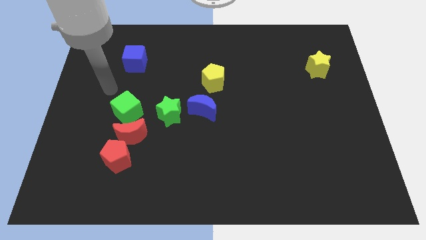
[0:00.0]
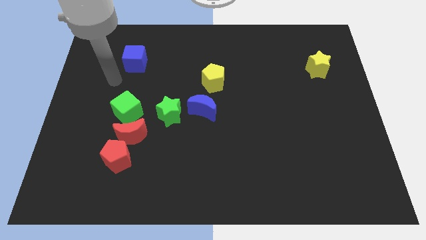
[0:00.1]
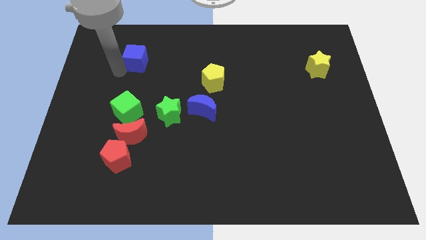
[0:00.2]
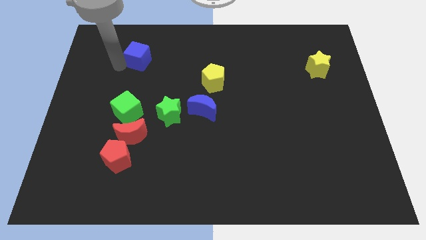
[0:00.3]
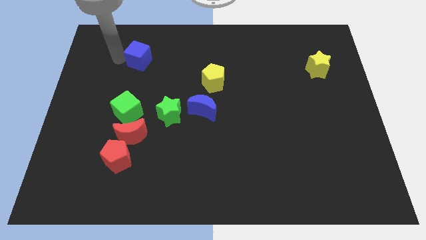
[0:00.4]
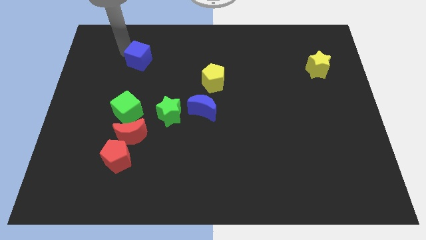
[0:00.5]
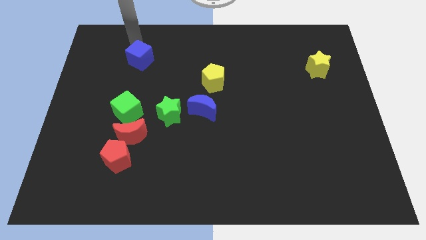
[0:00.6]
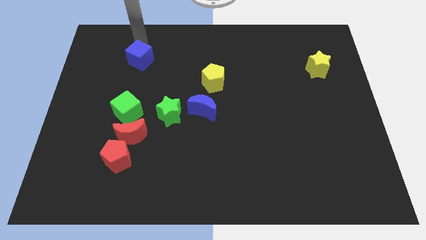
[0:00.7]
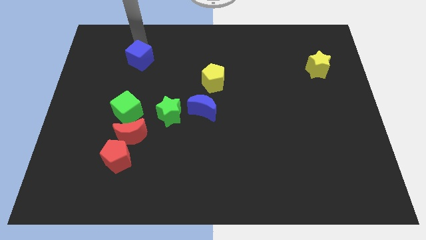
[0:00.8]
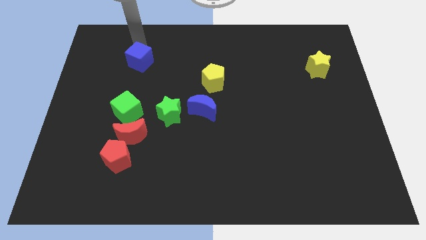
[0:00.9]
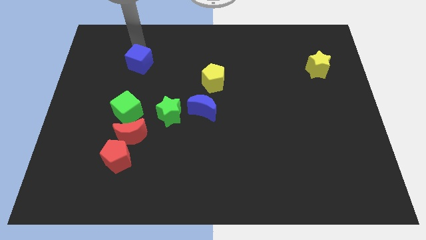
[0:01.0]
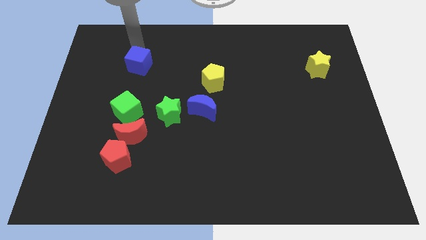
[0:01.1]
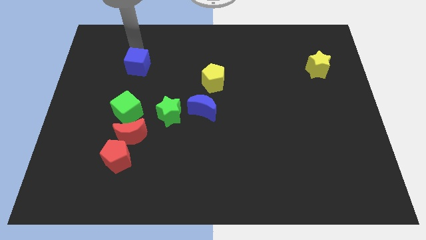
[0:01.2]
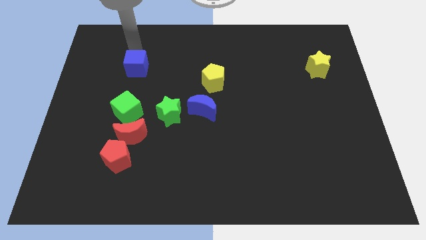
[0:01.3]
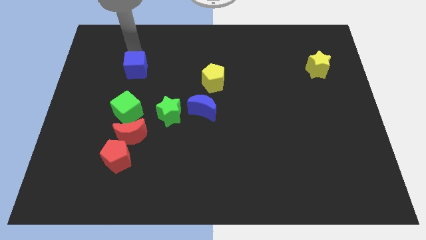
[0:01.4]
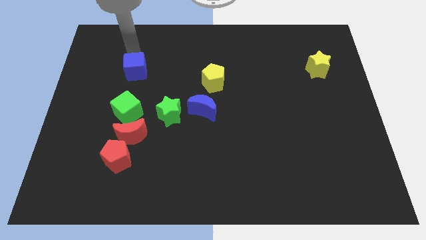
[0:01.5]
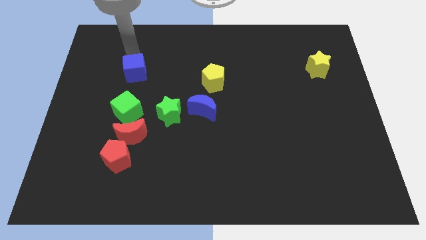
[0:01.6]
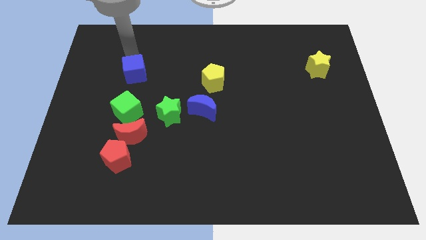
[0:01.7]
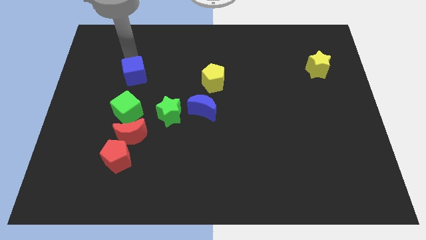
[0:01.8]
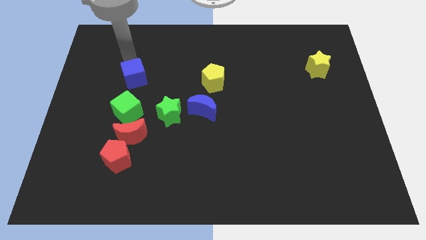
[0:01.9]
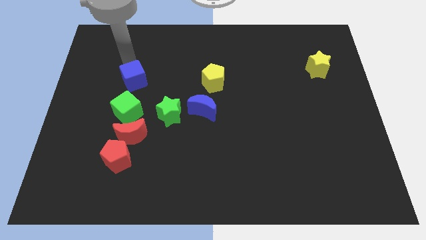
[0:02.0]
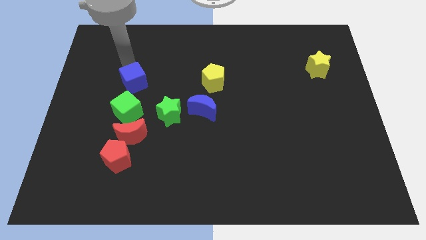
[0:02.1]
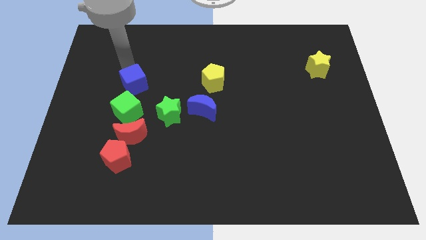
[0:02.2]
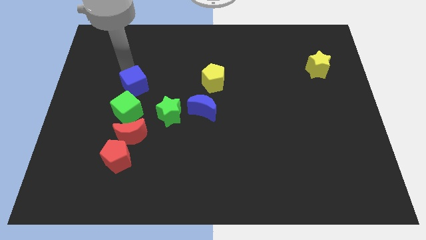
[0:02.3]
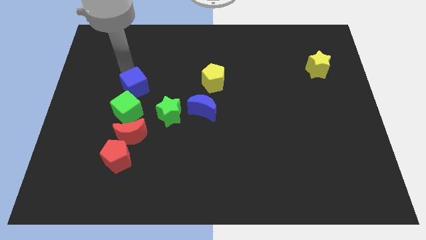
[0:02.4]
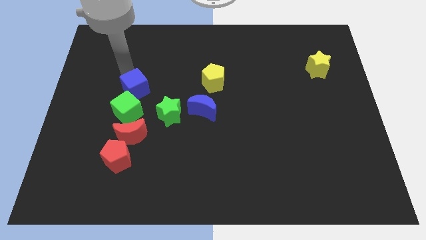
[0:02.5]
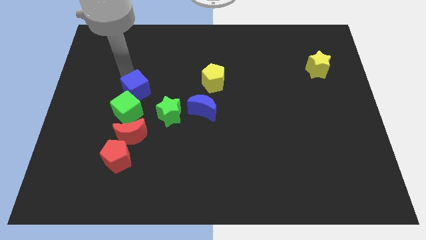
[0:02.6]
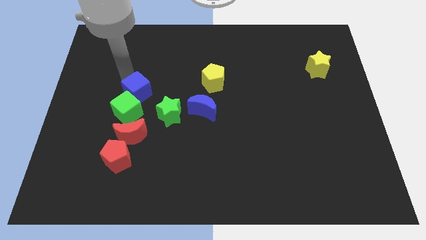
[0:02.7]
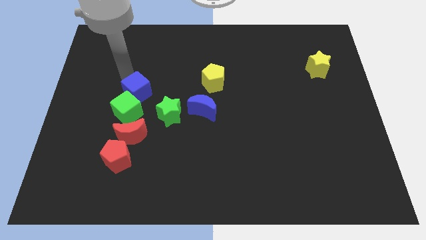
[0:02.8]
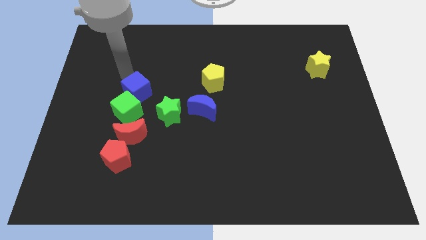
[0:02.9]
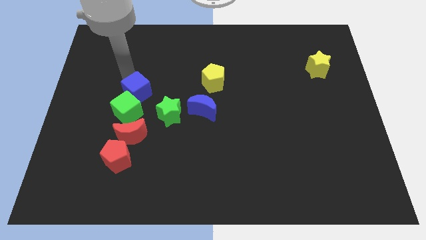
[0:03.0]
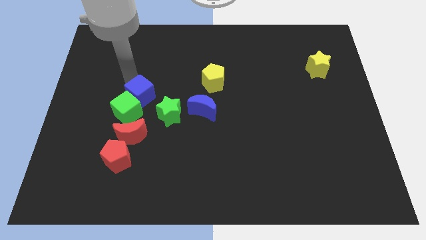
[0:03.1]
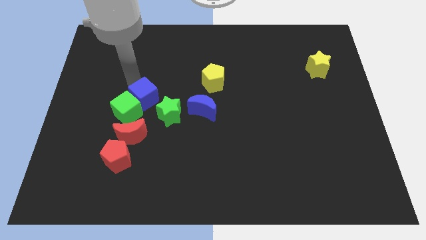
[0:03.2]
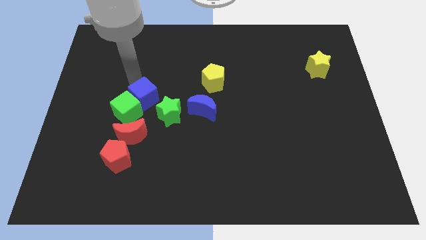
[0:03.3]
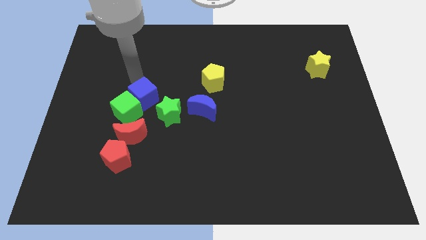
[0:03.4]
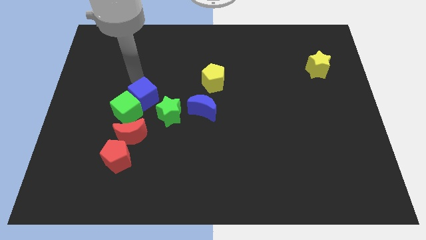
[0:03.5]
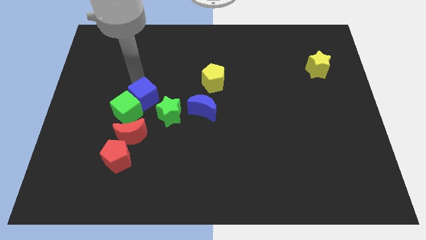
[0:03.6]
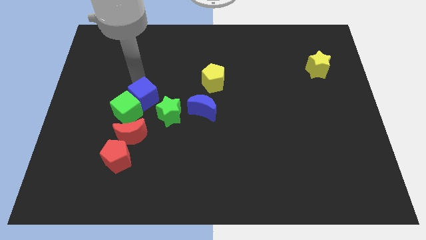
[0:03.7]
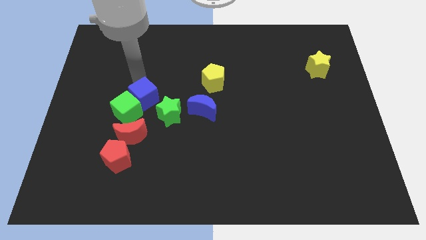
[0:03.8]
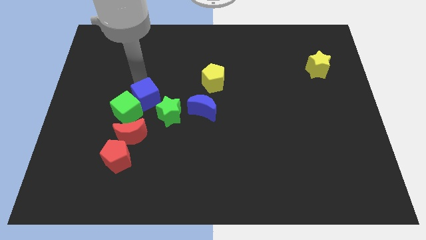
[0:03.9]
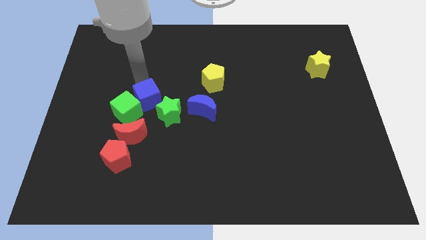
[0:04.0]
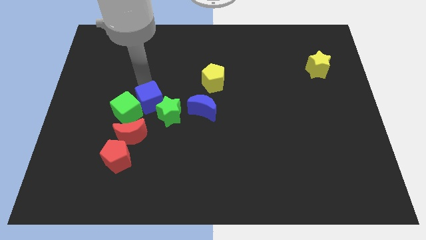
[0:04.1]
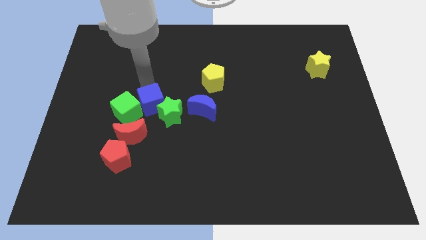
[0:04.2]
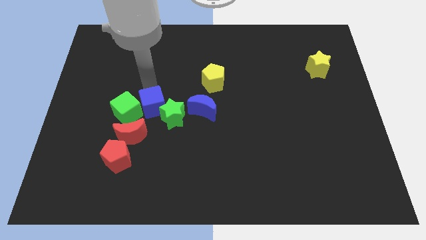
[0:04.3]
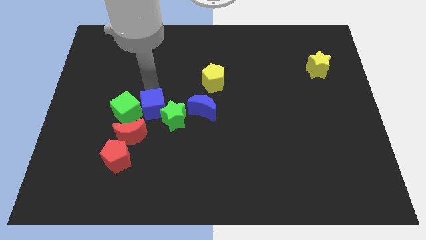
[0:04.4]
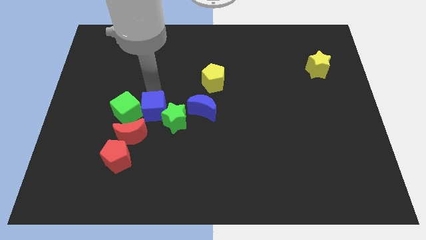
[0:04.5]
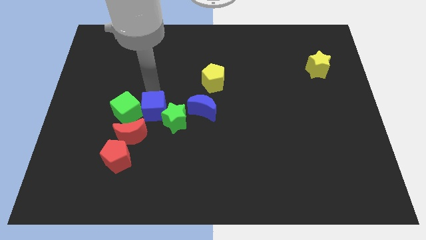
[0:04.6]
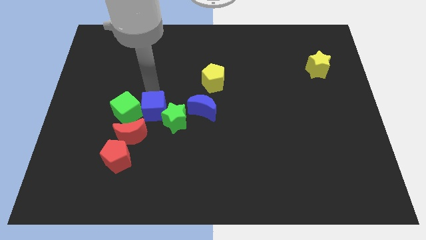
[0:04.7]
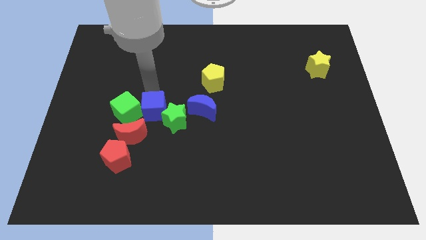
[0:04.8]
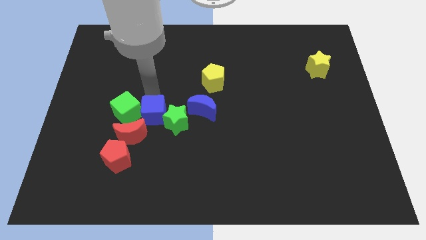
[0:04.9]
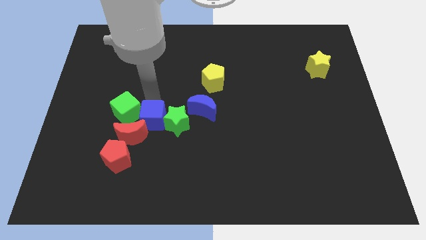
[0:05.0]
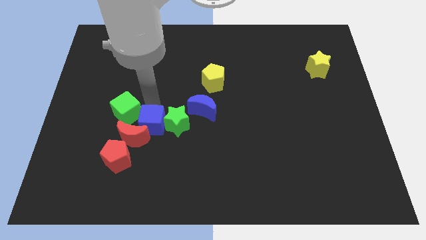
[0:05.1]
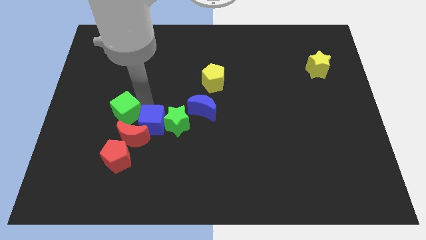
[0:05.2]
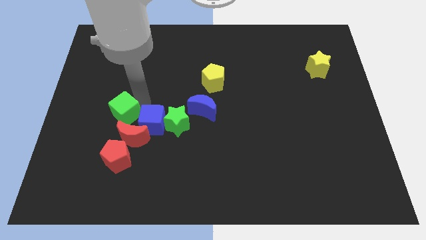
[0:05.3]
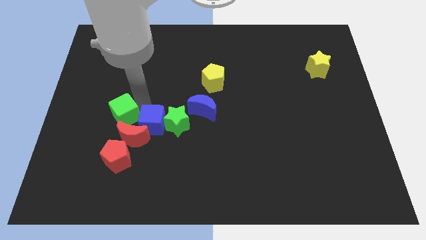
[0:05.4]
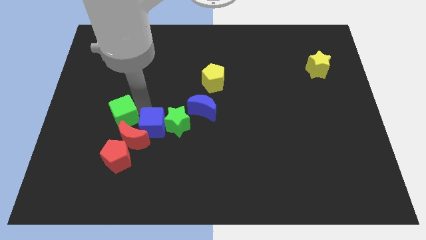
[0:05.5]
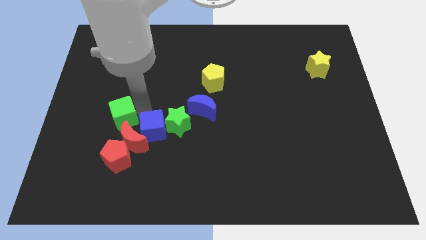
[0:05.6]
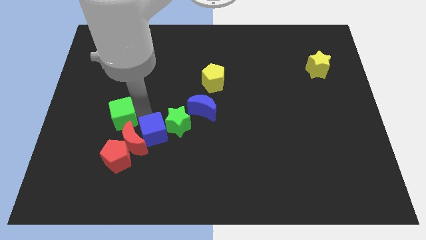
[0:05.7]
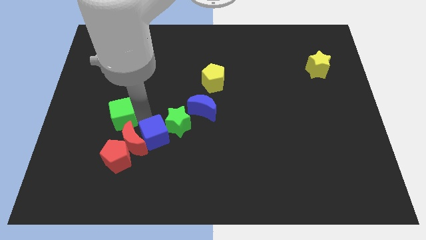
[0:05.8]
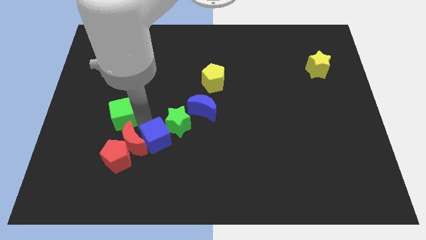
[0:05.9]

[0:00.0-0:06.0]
push the blue cube below the green star

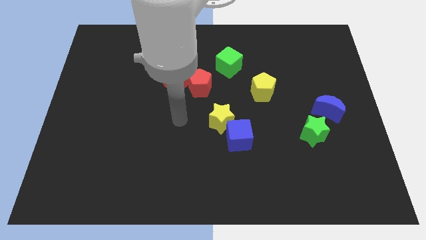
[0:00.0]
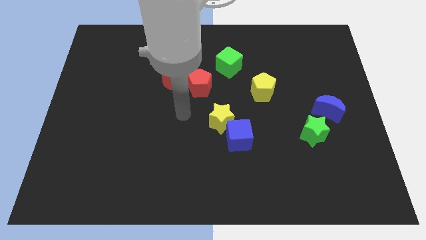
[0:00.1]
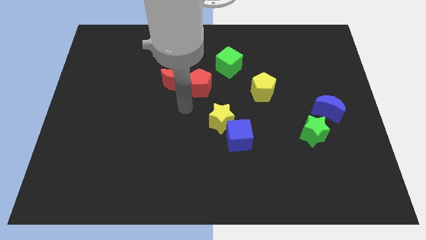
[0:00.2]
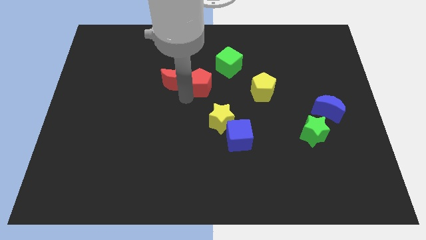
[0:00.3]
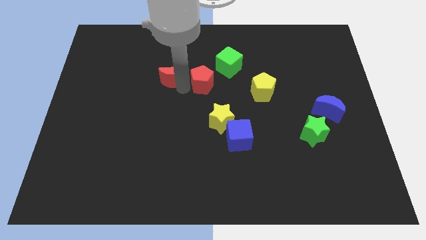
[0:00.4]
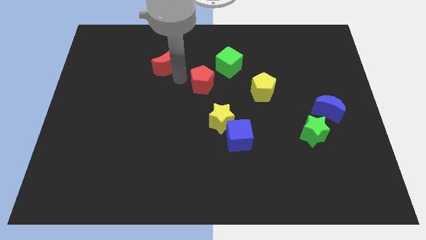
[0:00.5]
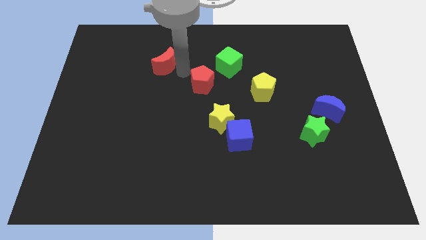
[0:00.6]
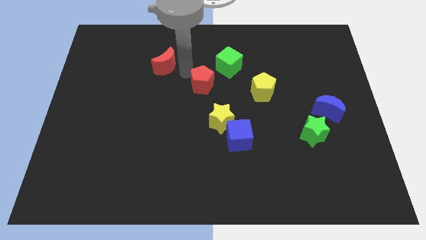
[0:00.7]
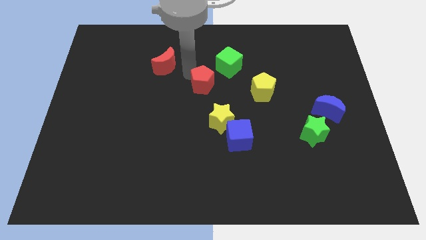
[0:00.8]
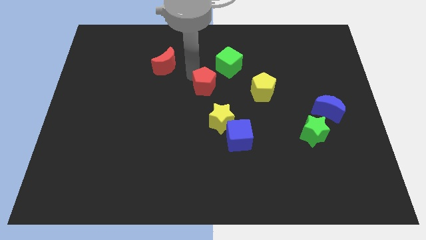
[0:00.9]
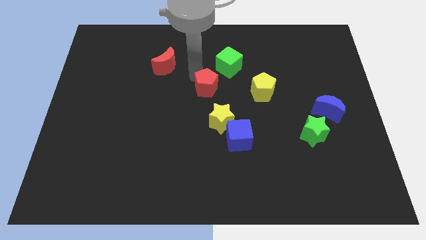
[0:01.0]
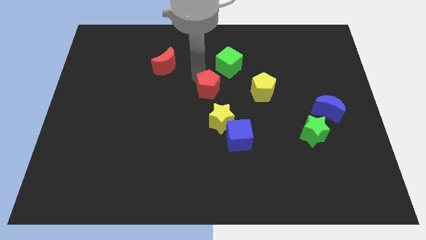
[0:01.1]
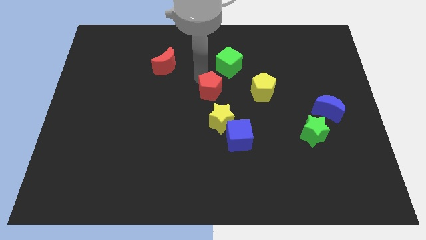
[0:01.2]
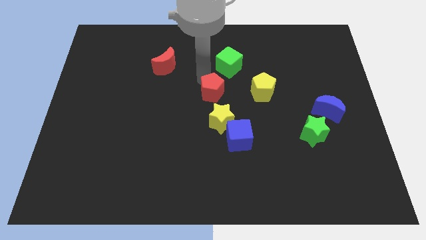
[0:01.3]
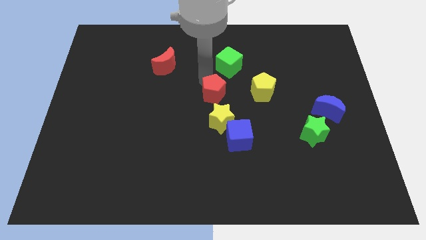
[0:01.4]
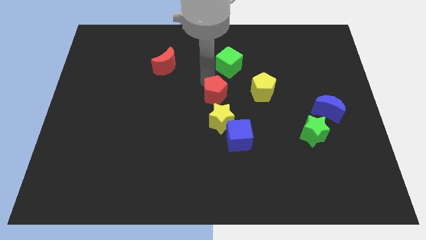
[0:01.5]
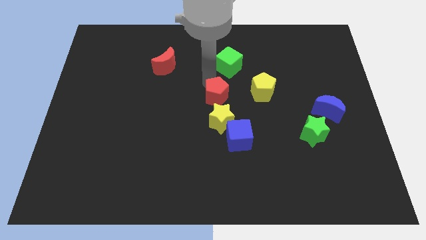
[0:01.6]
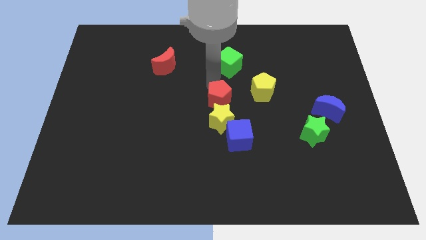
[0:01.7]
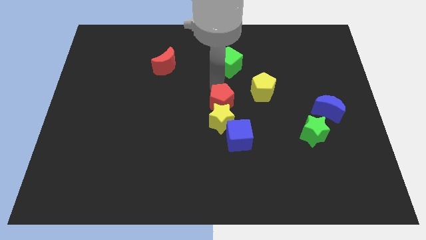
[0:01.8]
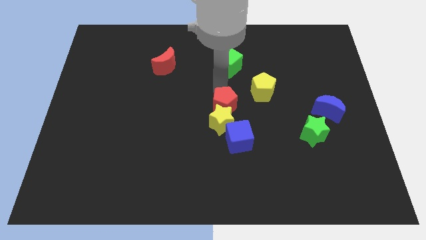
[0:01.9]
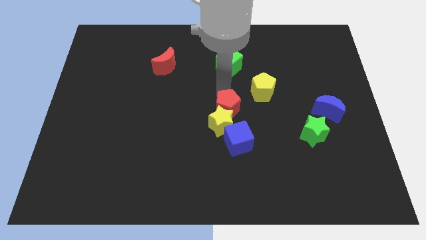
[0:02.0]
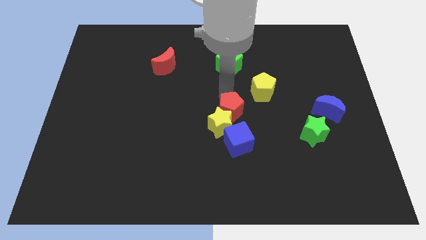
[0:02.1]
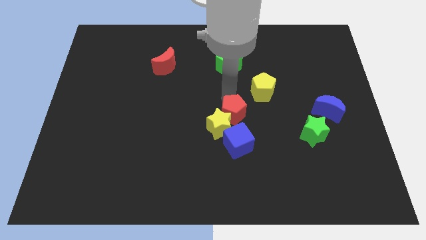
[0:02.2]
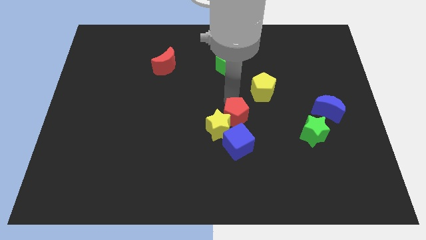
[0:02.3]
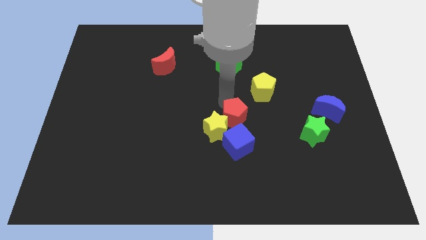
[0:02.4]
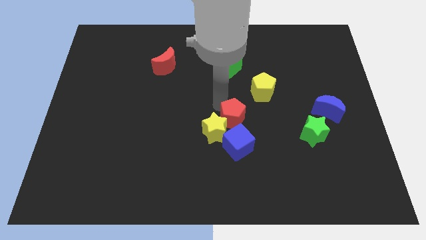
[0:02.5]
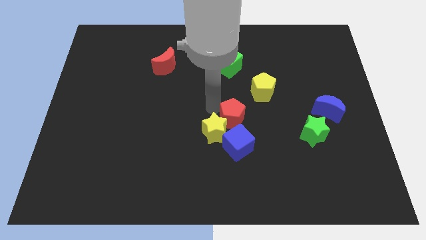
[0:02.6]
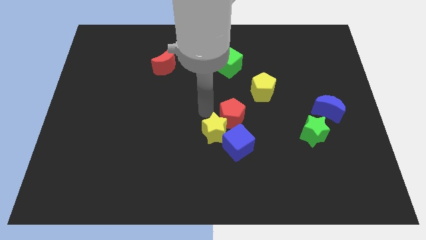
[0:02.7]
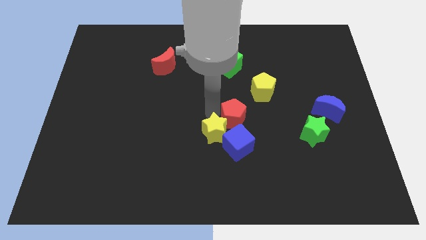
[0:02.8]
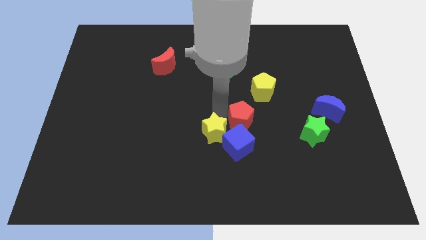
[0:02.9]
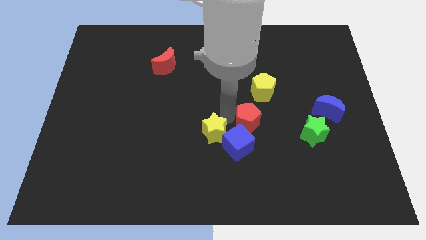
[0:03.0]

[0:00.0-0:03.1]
slide the red pentagon to the bottom side of the yellow pentagon
